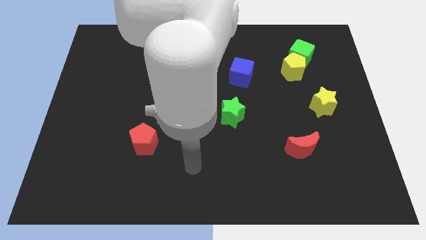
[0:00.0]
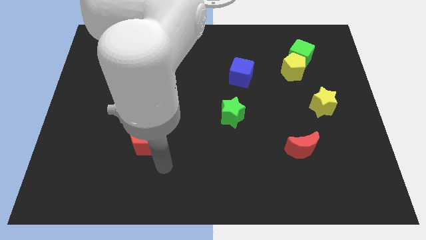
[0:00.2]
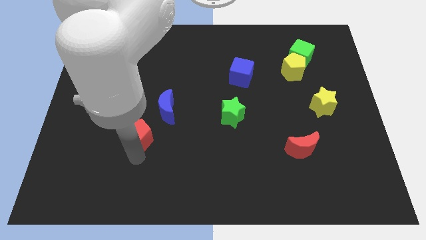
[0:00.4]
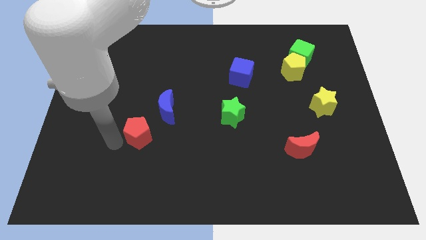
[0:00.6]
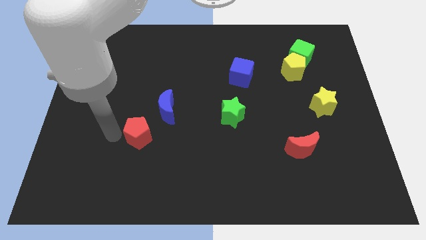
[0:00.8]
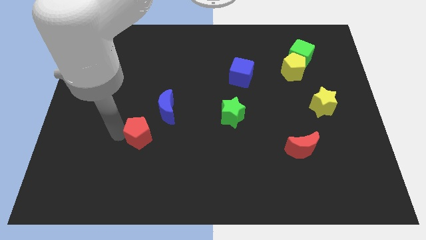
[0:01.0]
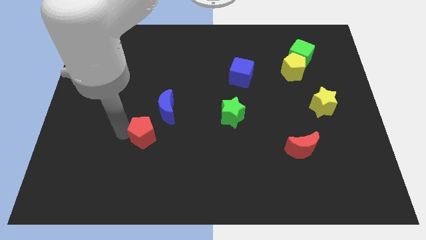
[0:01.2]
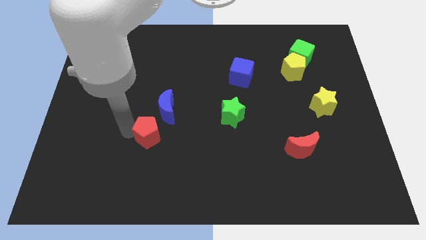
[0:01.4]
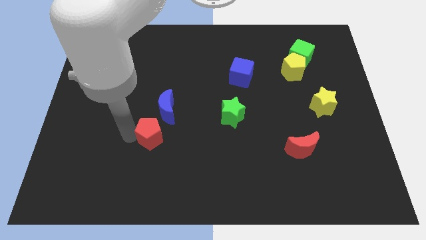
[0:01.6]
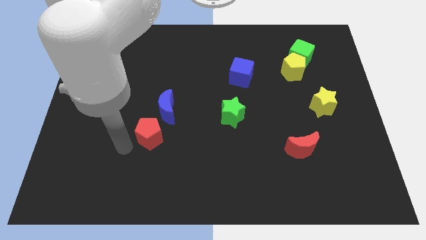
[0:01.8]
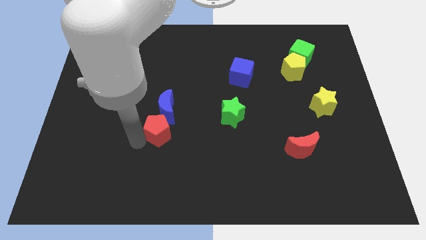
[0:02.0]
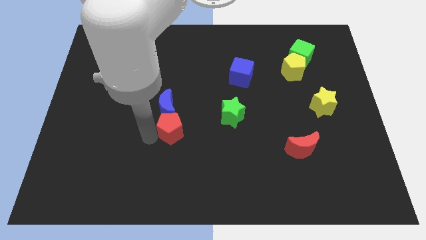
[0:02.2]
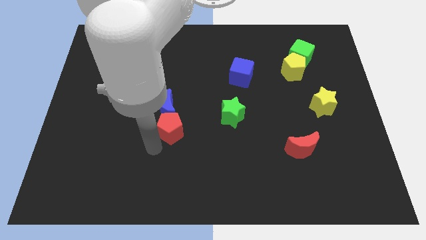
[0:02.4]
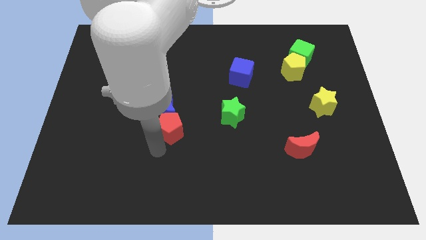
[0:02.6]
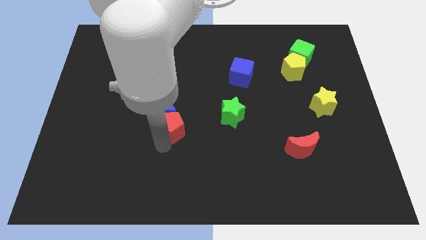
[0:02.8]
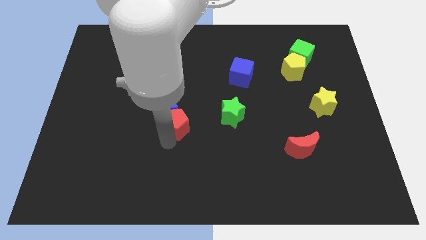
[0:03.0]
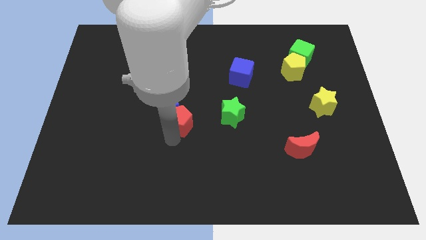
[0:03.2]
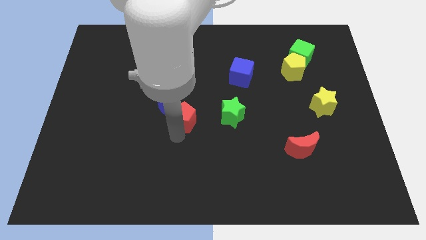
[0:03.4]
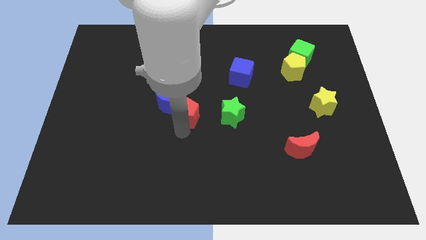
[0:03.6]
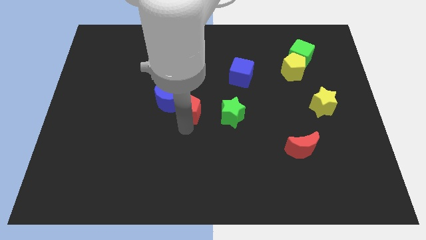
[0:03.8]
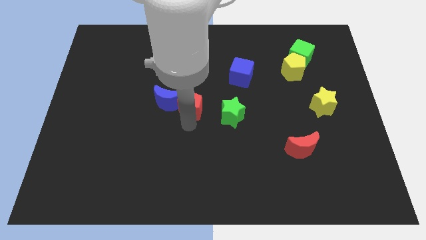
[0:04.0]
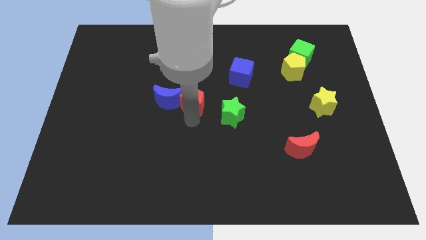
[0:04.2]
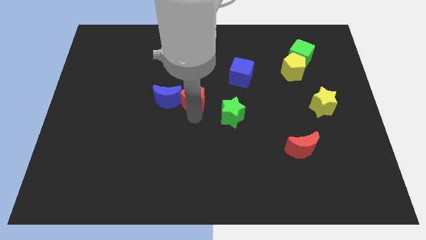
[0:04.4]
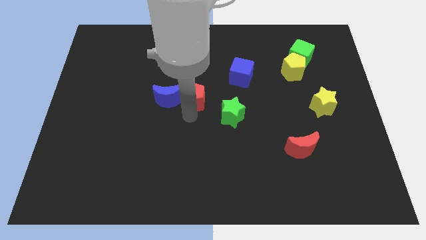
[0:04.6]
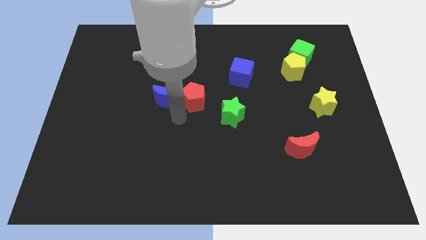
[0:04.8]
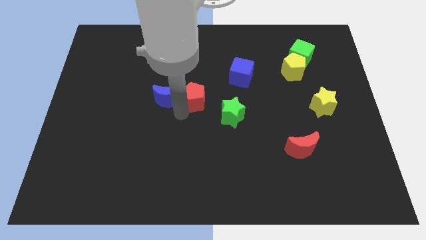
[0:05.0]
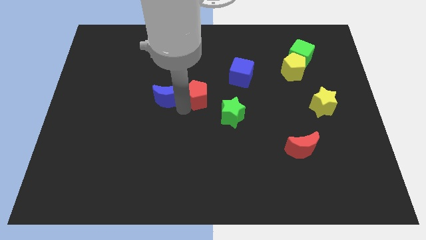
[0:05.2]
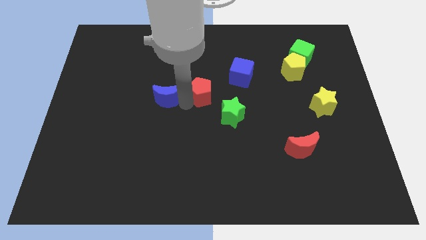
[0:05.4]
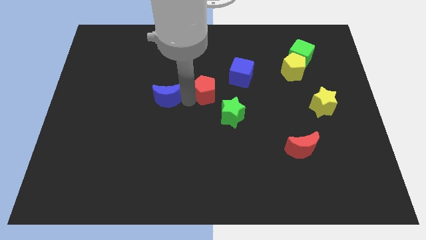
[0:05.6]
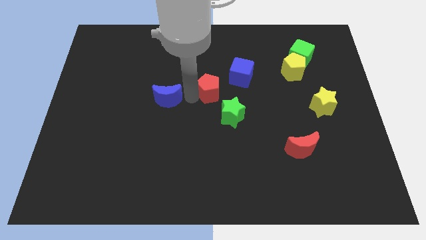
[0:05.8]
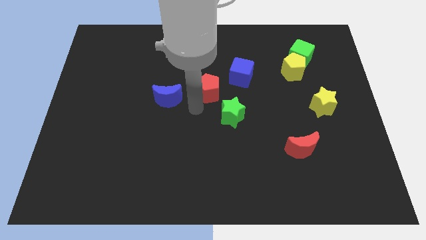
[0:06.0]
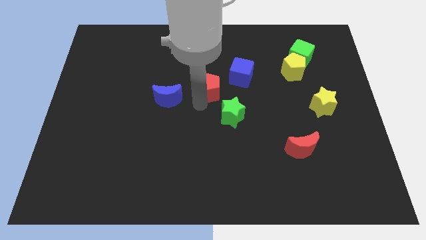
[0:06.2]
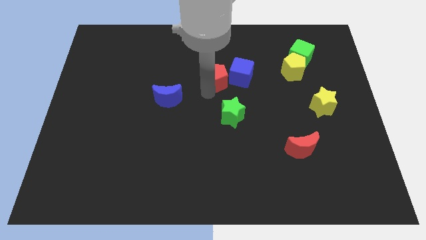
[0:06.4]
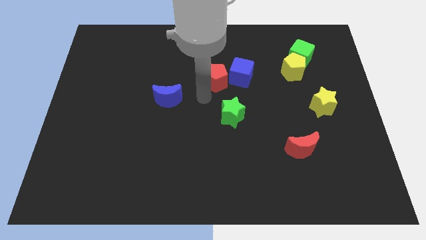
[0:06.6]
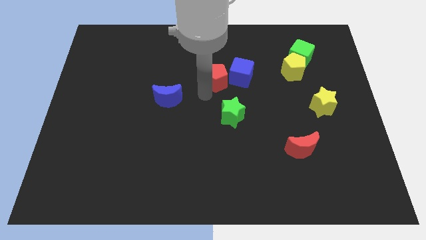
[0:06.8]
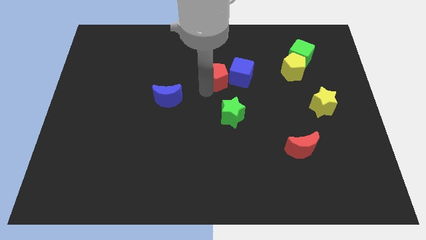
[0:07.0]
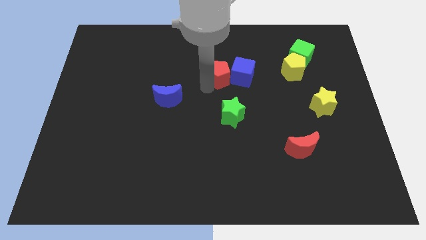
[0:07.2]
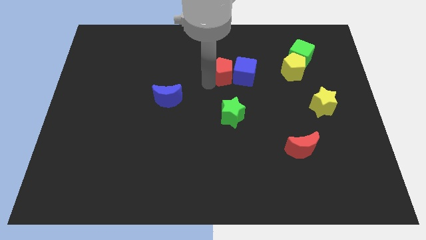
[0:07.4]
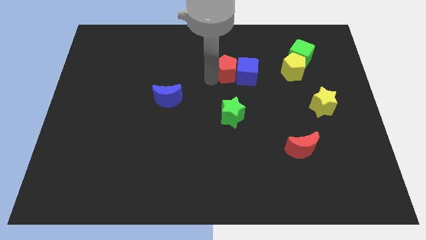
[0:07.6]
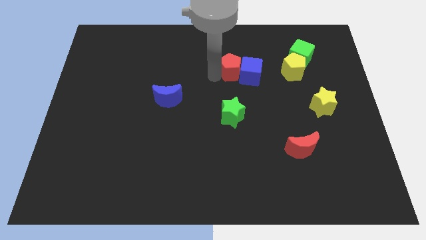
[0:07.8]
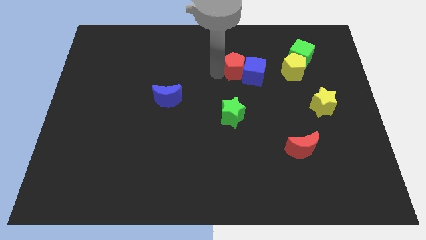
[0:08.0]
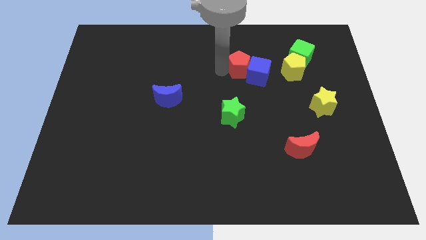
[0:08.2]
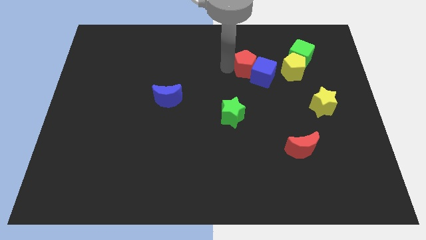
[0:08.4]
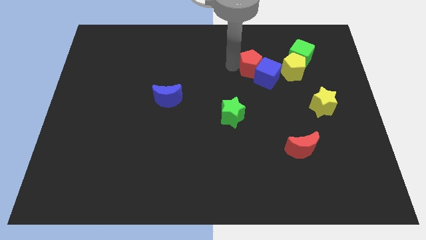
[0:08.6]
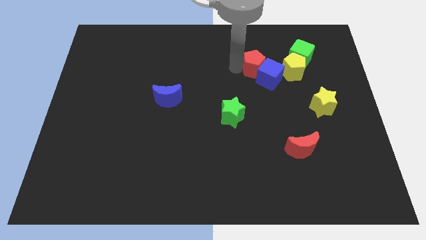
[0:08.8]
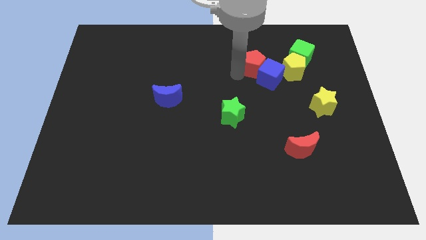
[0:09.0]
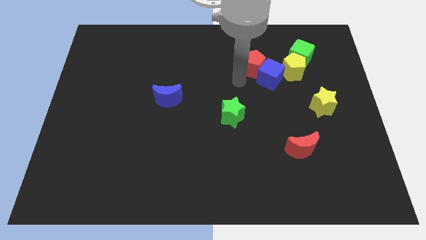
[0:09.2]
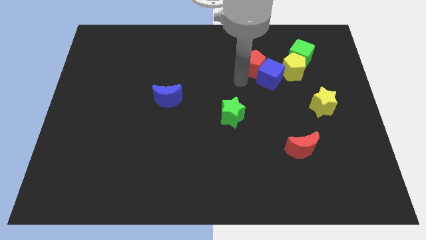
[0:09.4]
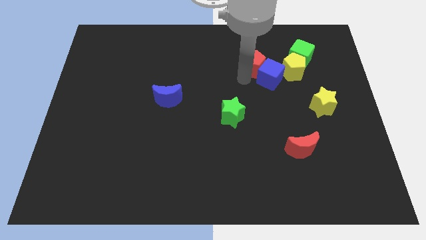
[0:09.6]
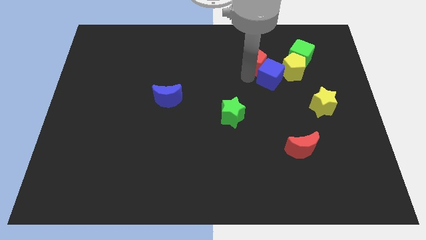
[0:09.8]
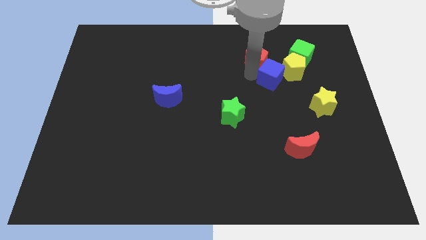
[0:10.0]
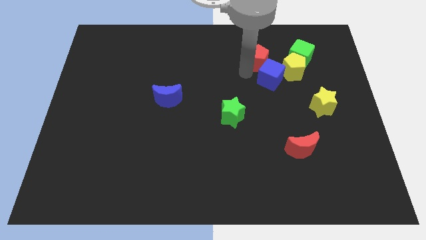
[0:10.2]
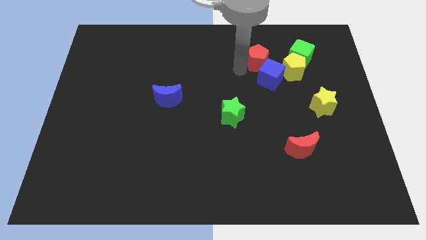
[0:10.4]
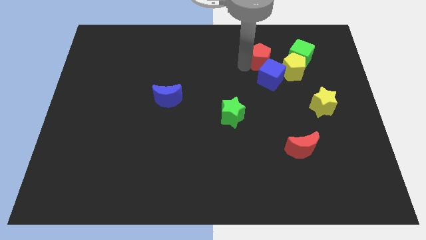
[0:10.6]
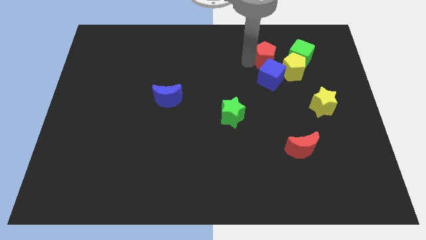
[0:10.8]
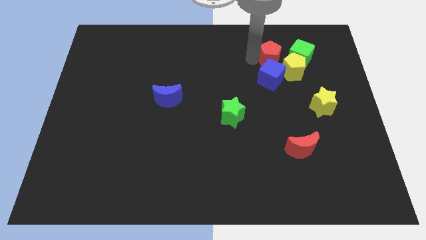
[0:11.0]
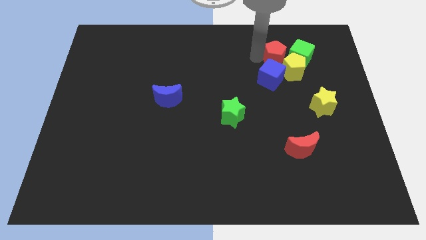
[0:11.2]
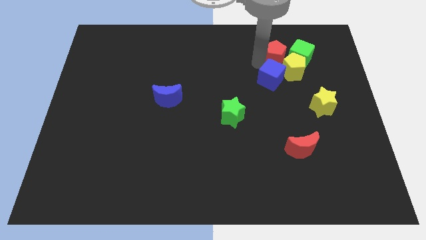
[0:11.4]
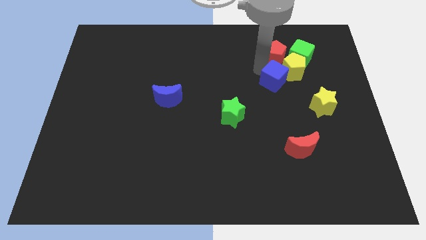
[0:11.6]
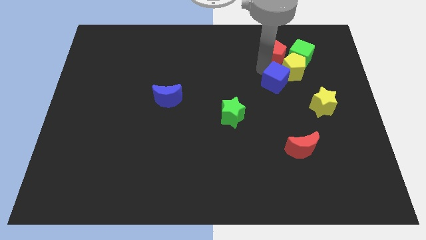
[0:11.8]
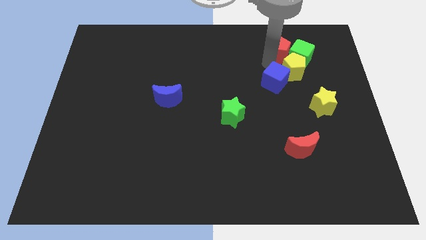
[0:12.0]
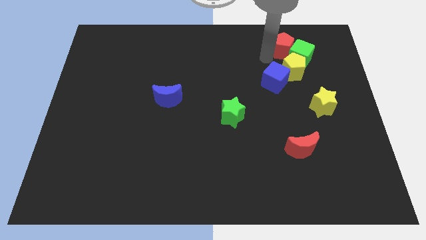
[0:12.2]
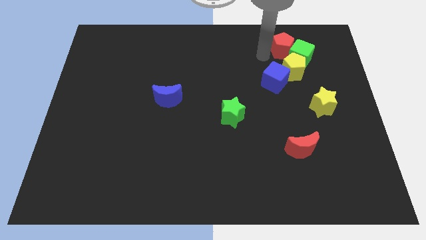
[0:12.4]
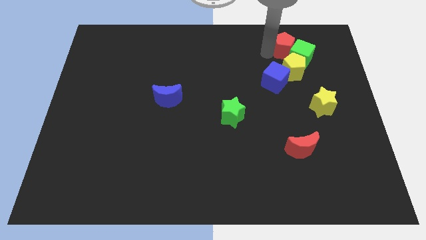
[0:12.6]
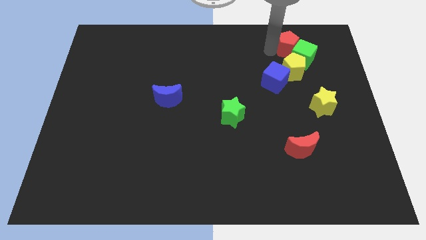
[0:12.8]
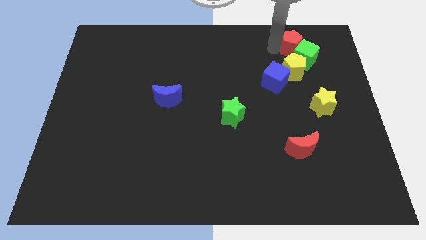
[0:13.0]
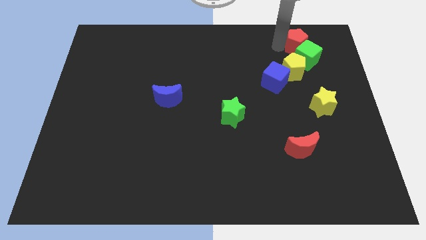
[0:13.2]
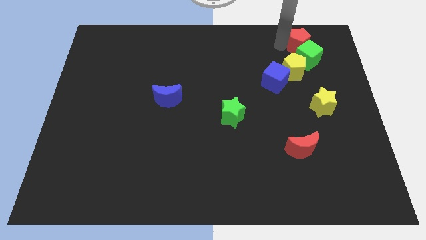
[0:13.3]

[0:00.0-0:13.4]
put the red pentagon to the top right side of the yellow pentagon
